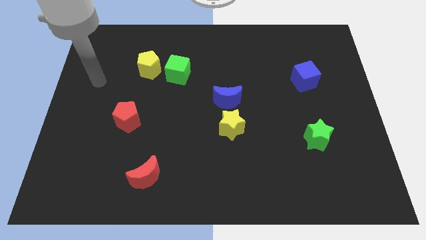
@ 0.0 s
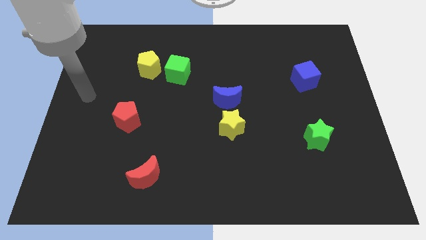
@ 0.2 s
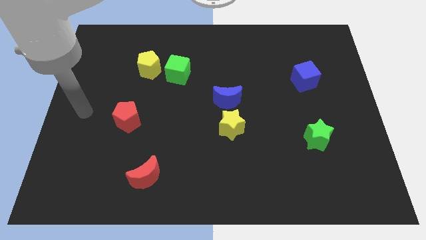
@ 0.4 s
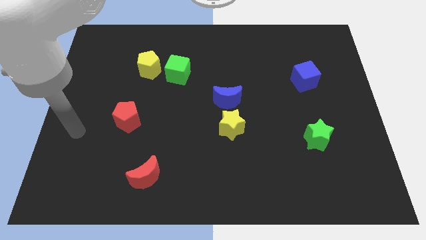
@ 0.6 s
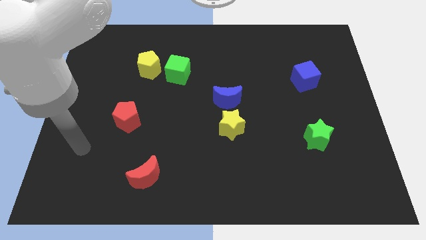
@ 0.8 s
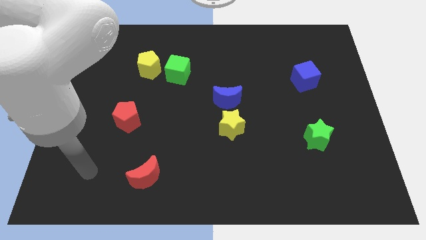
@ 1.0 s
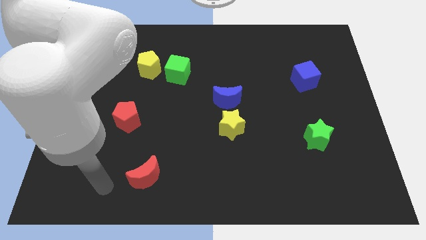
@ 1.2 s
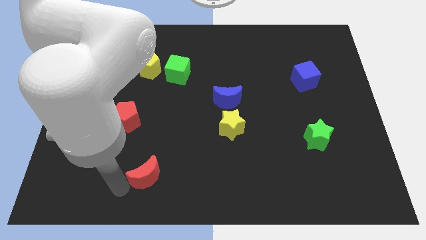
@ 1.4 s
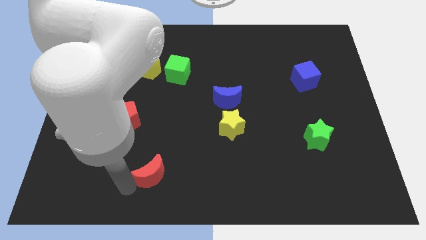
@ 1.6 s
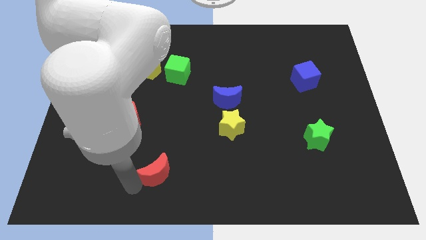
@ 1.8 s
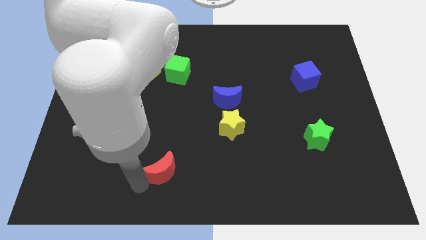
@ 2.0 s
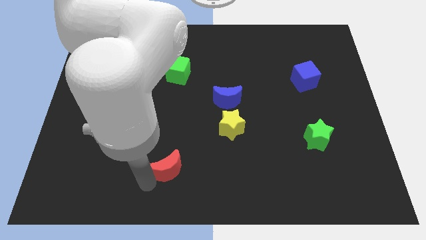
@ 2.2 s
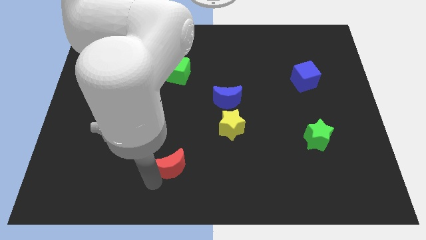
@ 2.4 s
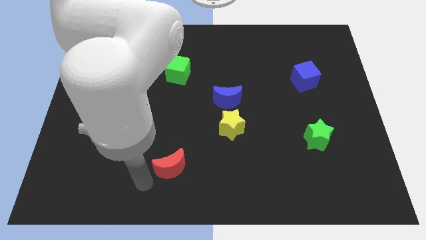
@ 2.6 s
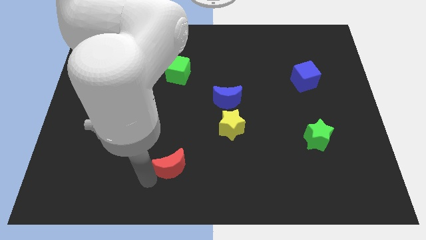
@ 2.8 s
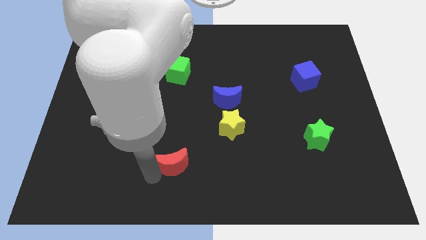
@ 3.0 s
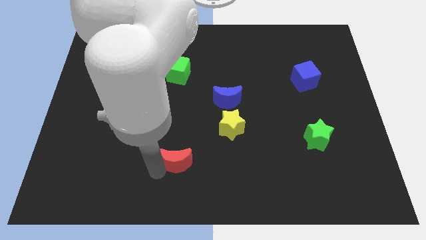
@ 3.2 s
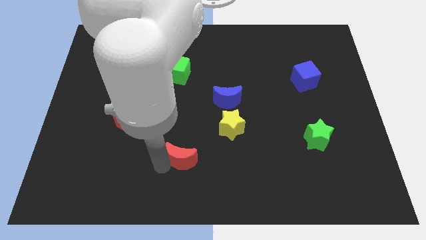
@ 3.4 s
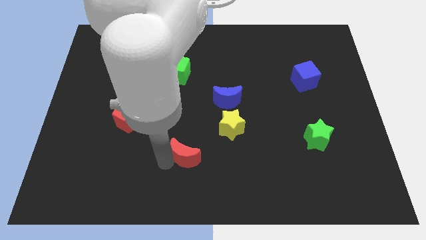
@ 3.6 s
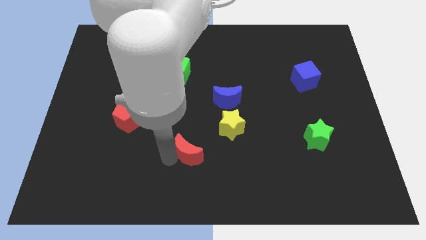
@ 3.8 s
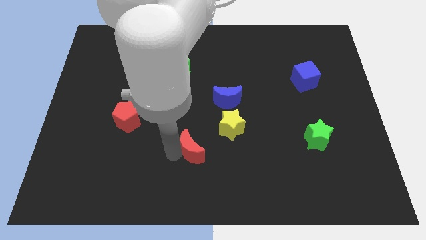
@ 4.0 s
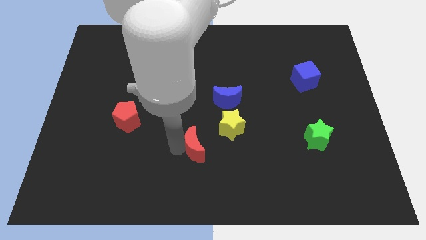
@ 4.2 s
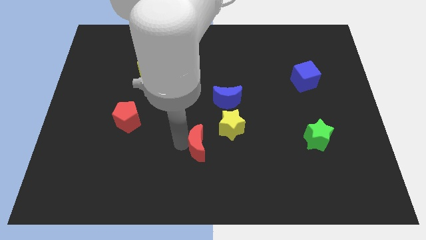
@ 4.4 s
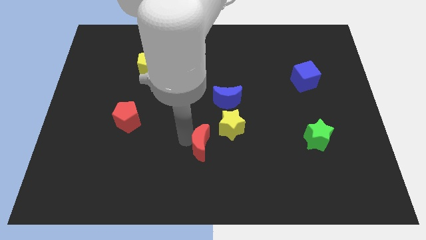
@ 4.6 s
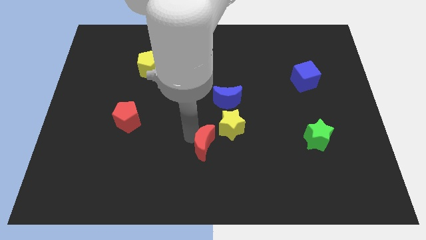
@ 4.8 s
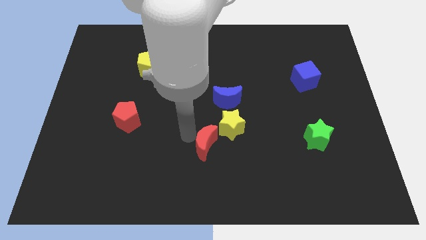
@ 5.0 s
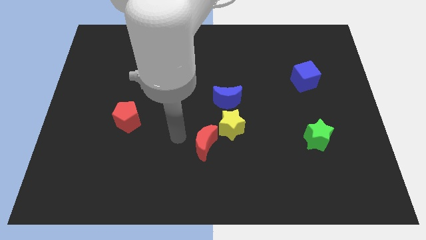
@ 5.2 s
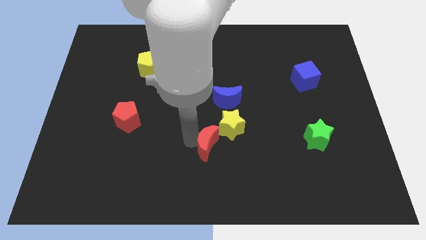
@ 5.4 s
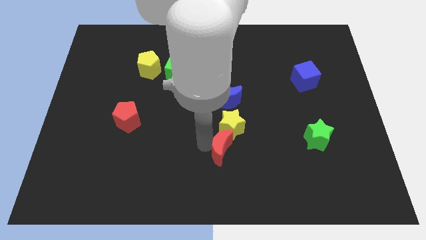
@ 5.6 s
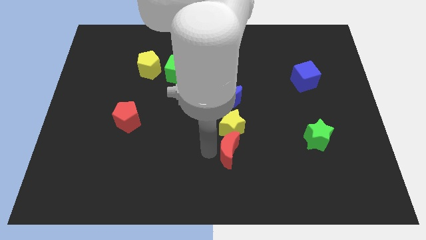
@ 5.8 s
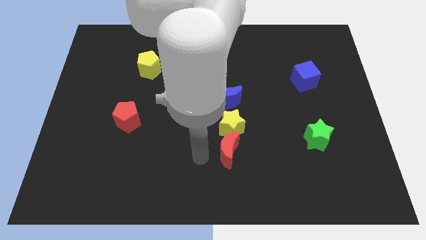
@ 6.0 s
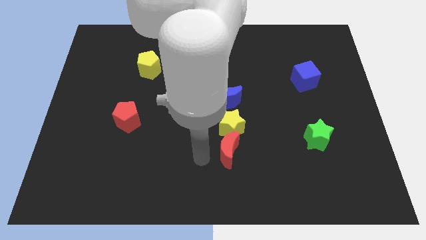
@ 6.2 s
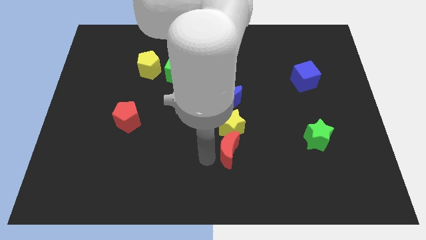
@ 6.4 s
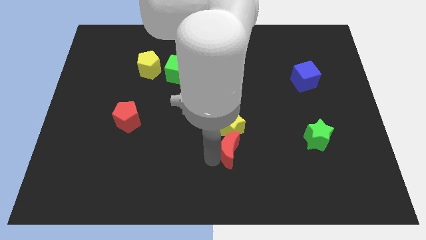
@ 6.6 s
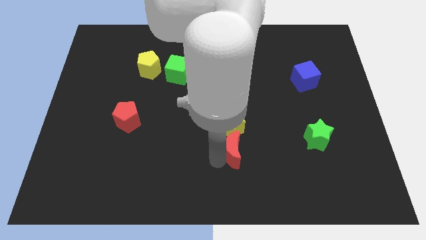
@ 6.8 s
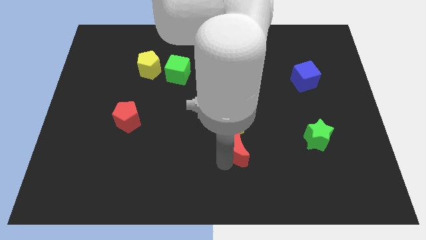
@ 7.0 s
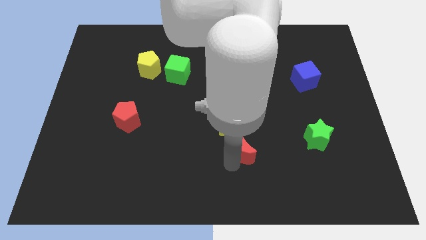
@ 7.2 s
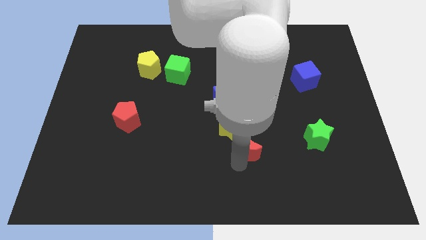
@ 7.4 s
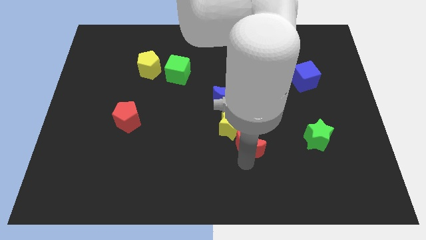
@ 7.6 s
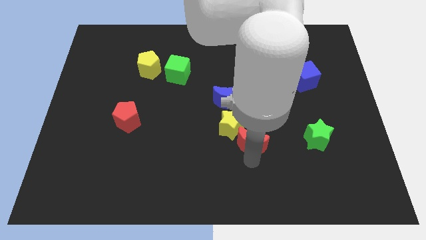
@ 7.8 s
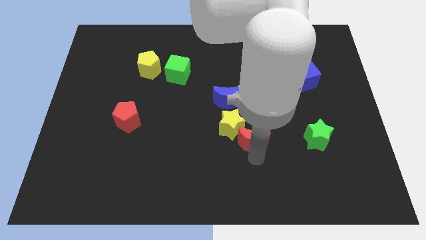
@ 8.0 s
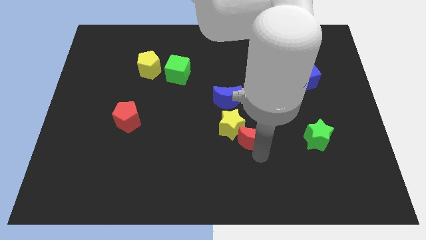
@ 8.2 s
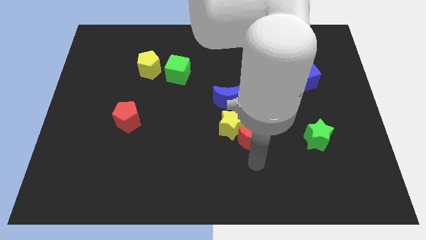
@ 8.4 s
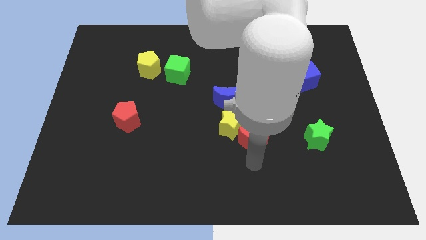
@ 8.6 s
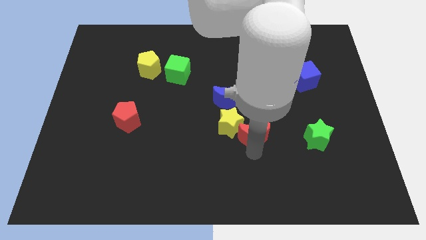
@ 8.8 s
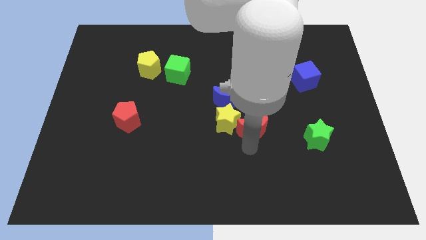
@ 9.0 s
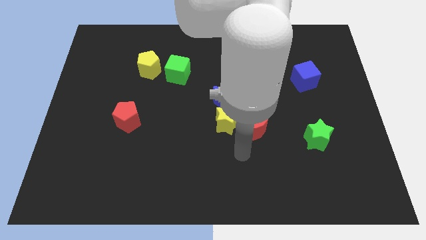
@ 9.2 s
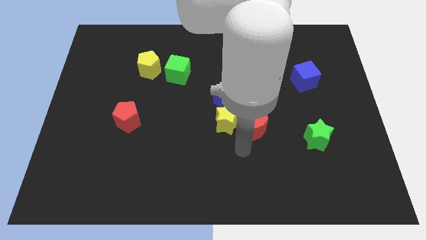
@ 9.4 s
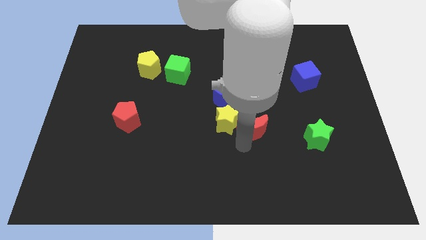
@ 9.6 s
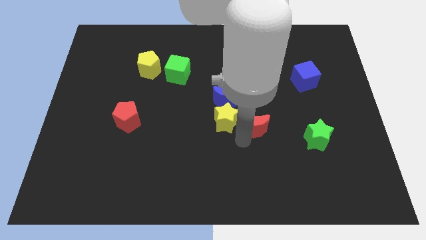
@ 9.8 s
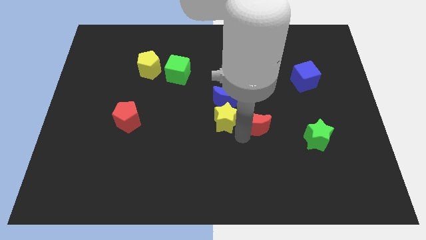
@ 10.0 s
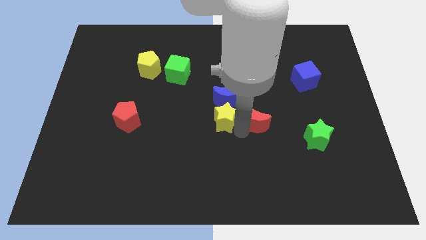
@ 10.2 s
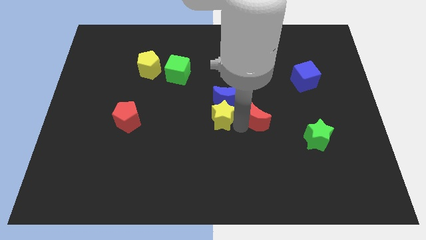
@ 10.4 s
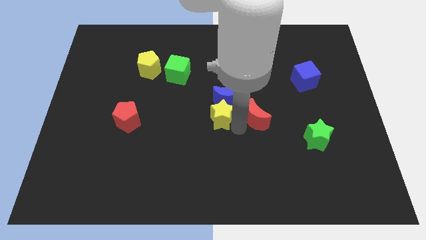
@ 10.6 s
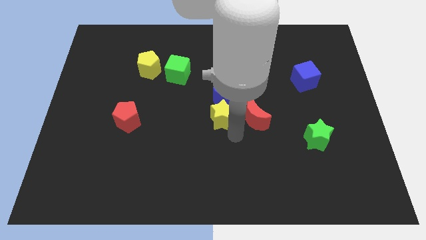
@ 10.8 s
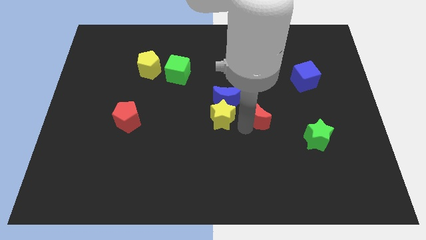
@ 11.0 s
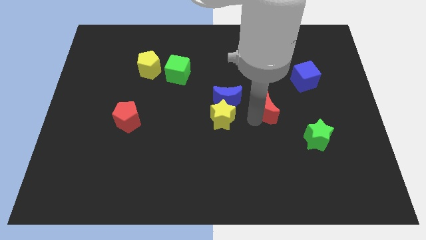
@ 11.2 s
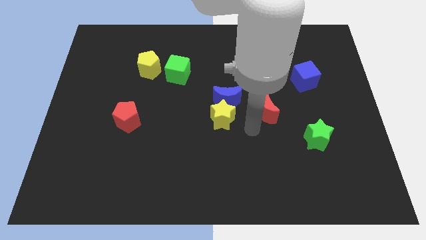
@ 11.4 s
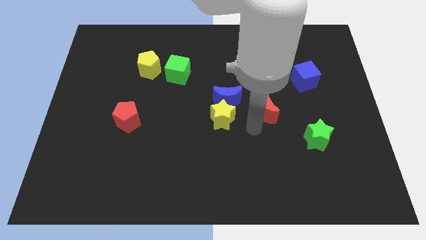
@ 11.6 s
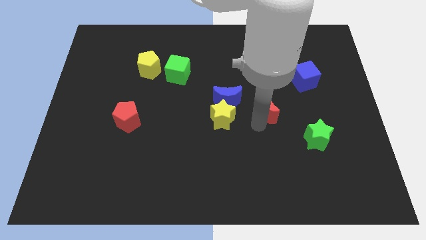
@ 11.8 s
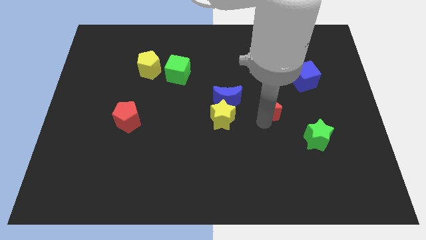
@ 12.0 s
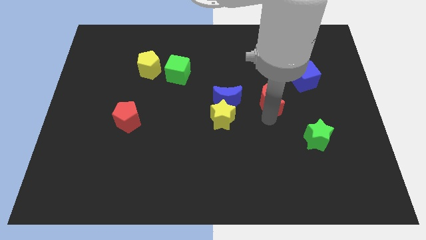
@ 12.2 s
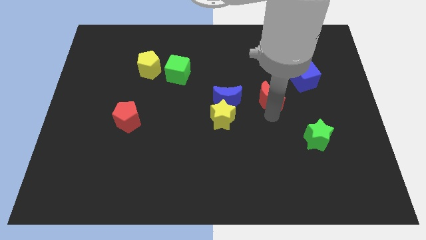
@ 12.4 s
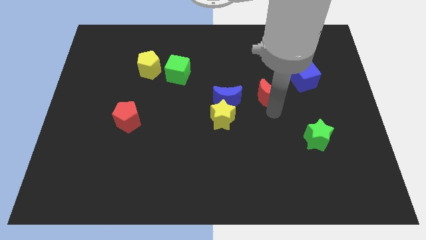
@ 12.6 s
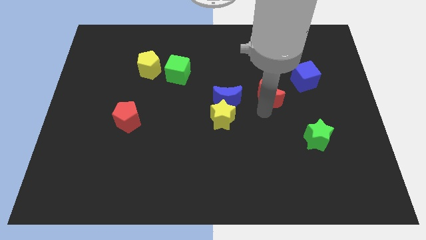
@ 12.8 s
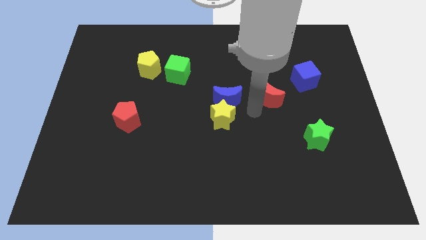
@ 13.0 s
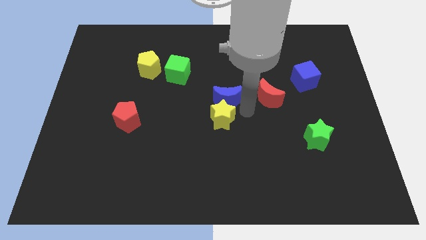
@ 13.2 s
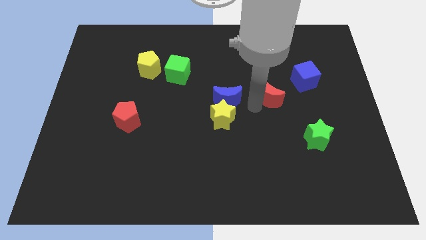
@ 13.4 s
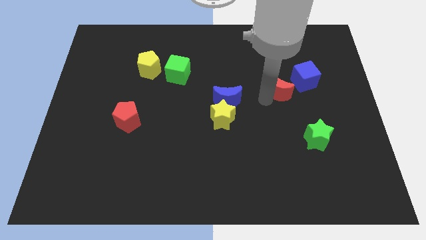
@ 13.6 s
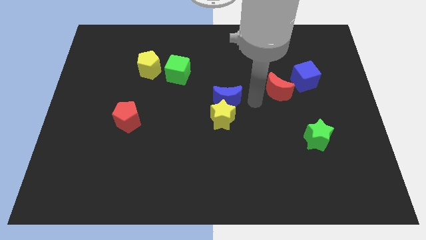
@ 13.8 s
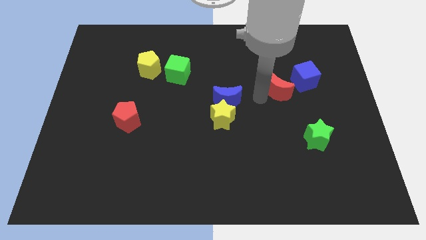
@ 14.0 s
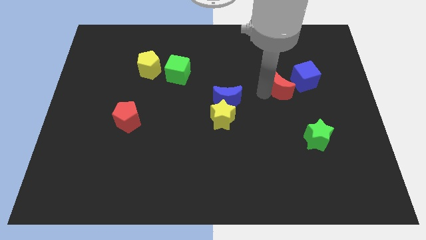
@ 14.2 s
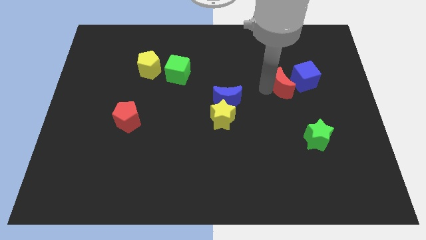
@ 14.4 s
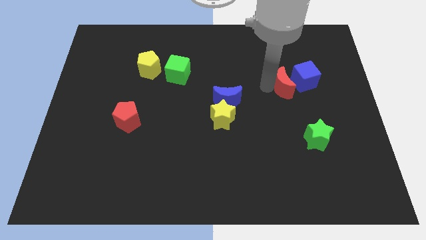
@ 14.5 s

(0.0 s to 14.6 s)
slide the red moon next to the blue cube

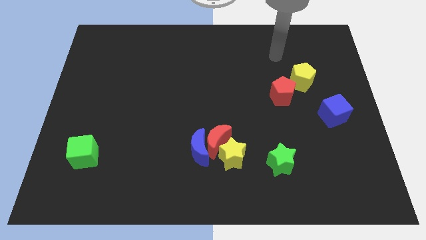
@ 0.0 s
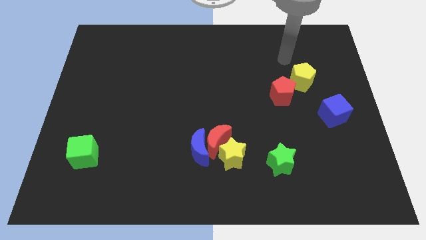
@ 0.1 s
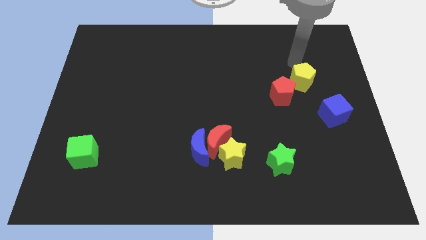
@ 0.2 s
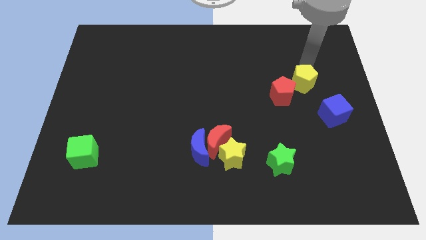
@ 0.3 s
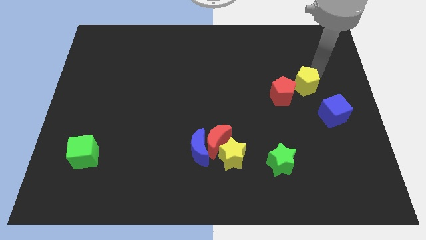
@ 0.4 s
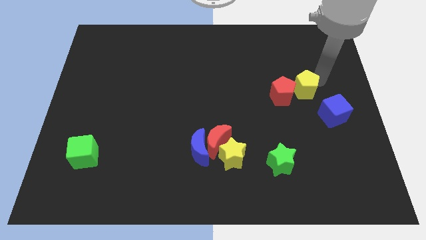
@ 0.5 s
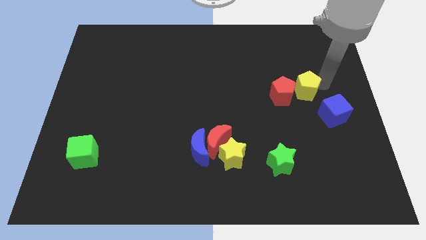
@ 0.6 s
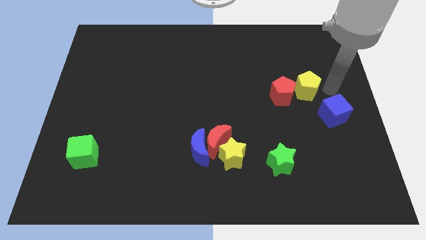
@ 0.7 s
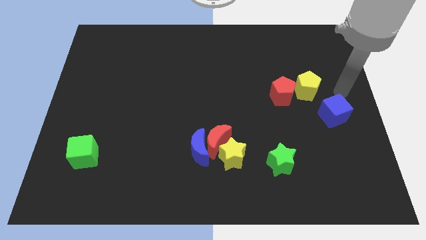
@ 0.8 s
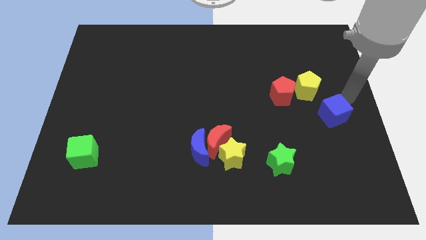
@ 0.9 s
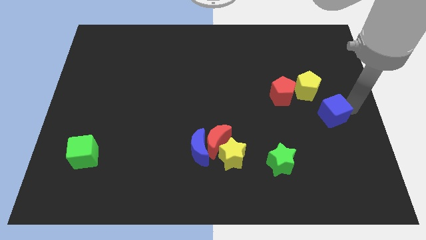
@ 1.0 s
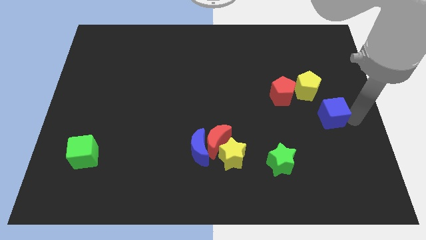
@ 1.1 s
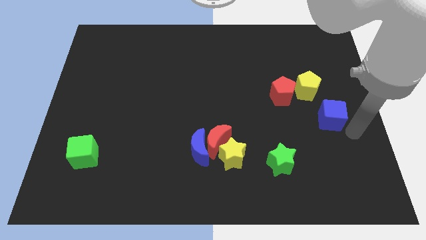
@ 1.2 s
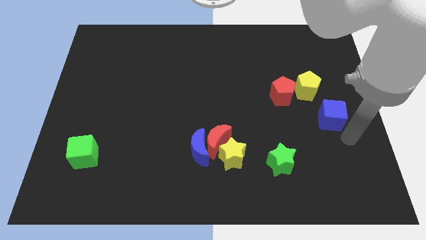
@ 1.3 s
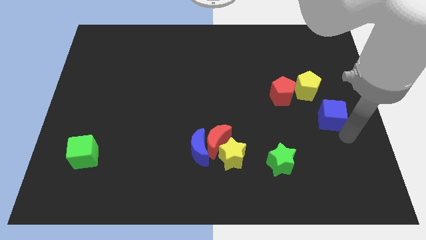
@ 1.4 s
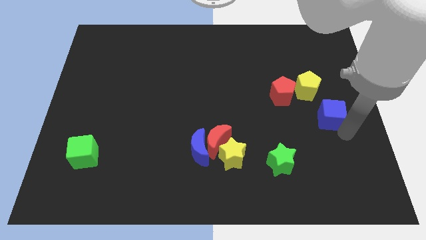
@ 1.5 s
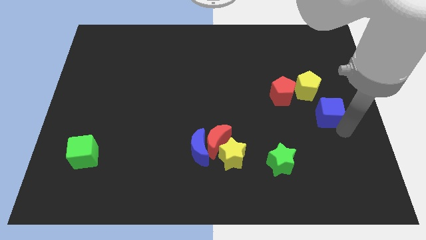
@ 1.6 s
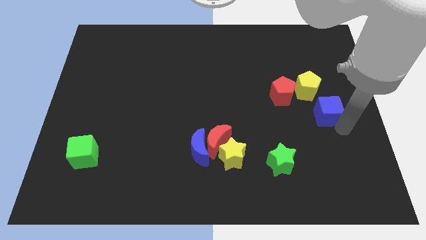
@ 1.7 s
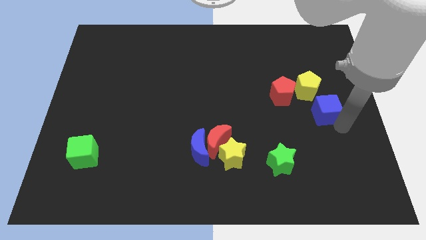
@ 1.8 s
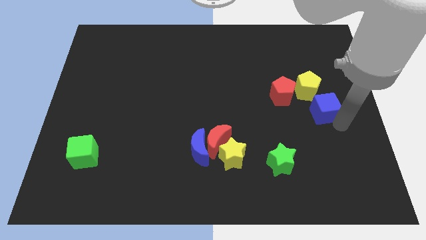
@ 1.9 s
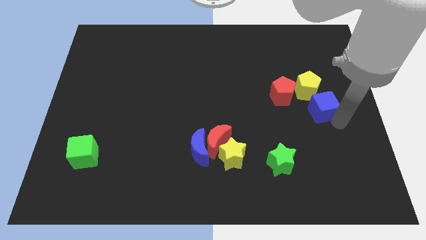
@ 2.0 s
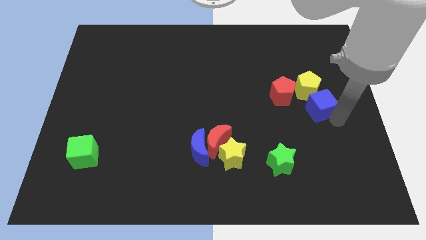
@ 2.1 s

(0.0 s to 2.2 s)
move the blue cube close to the yellow pentagon
